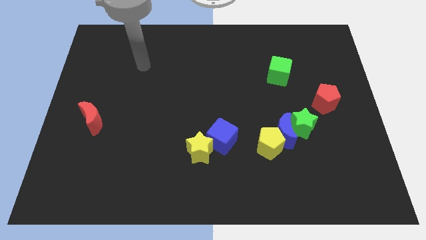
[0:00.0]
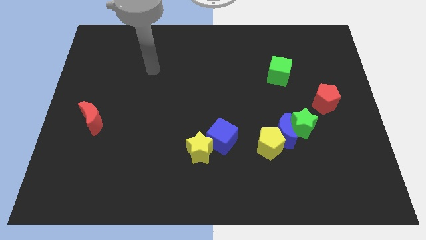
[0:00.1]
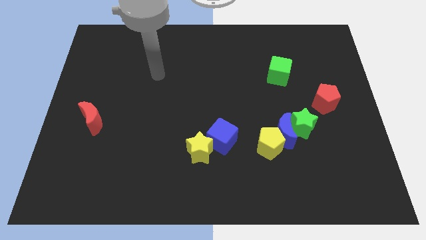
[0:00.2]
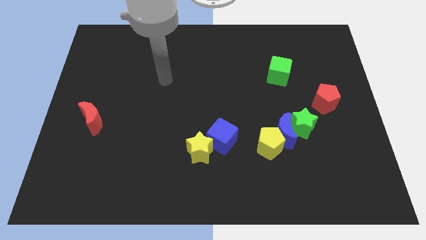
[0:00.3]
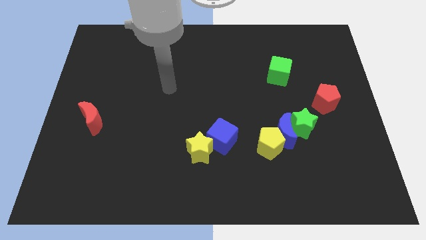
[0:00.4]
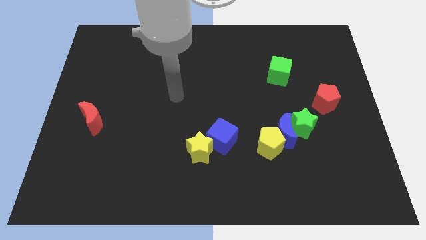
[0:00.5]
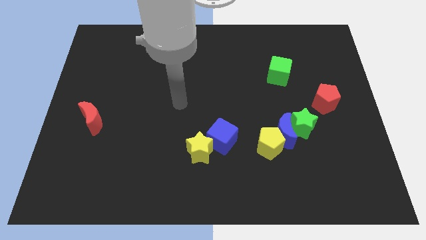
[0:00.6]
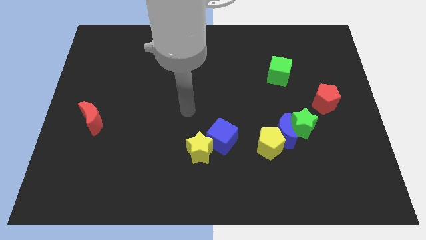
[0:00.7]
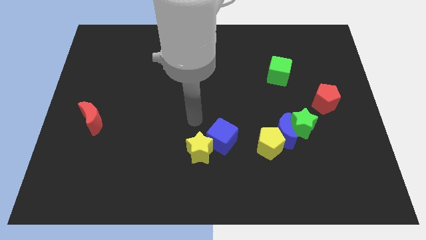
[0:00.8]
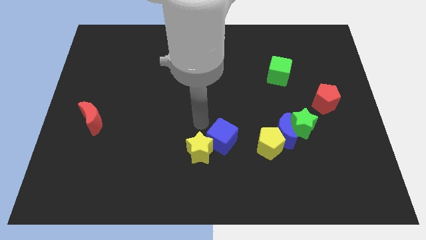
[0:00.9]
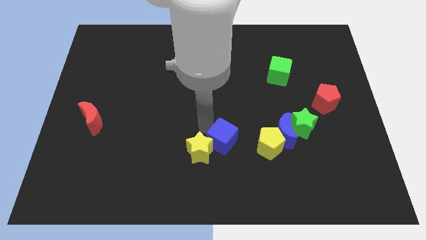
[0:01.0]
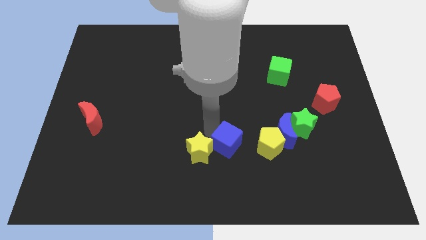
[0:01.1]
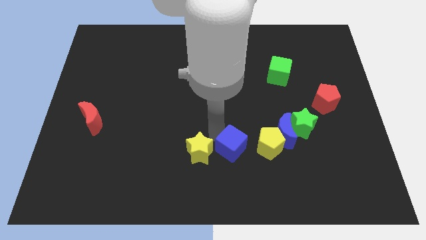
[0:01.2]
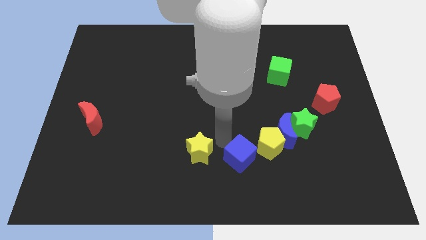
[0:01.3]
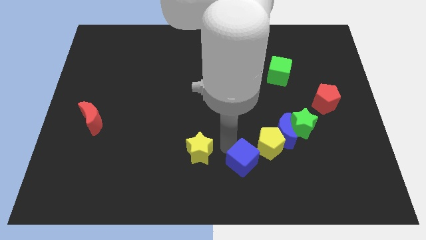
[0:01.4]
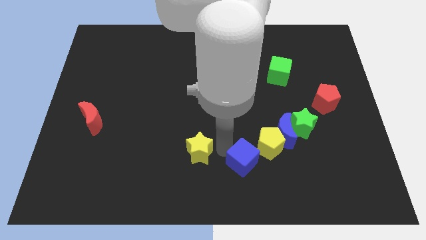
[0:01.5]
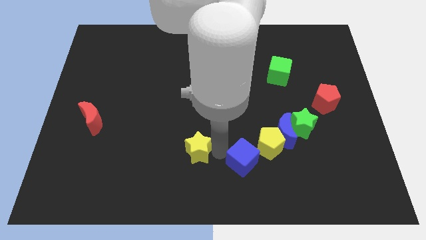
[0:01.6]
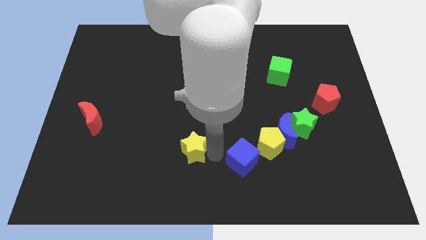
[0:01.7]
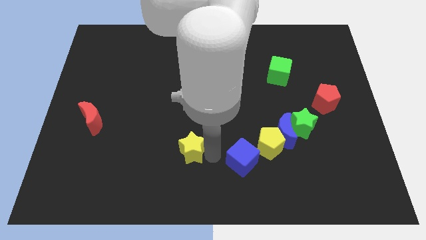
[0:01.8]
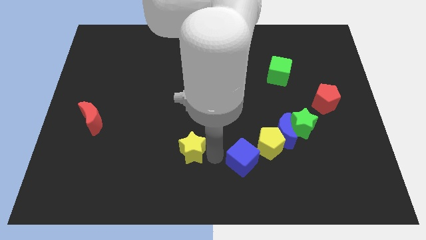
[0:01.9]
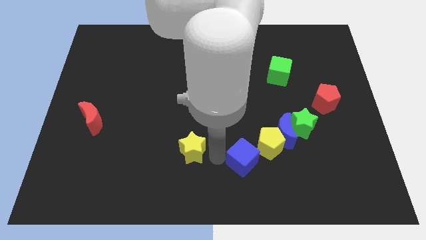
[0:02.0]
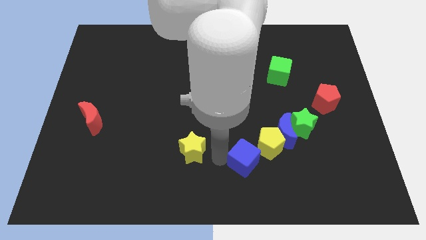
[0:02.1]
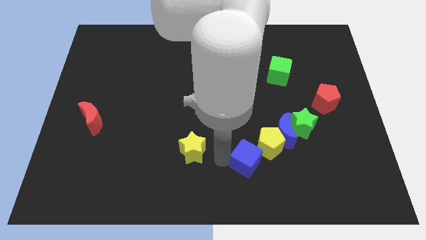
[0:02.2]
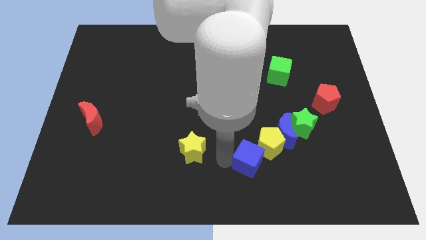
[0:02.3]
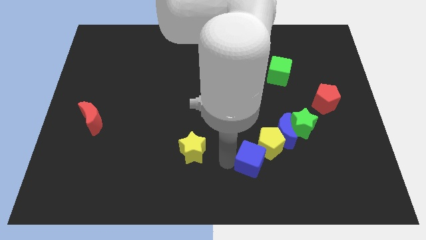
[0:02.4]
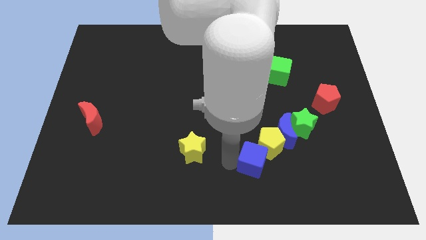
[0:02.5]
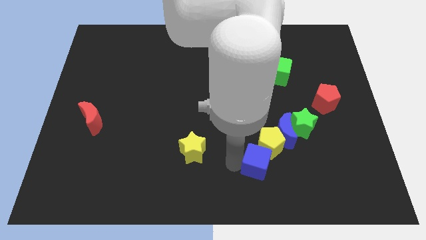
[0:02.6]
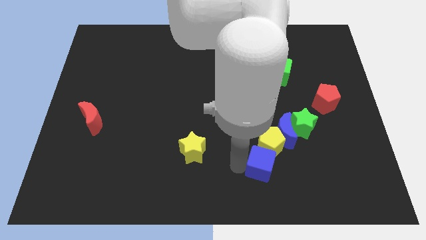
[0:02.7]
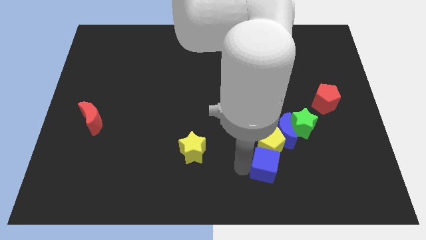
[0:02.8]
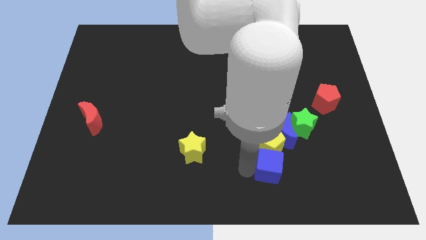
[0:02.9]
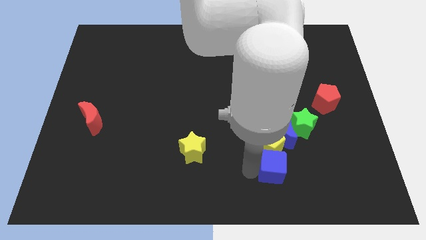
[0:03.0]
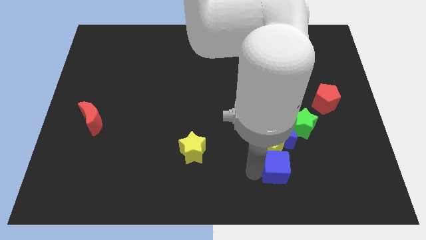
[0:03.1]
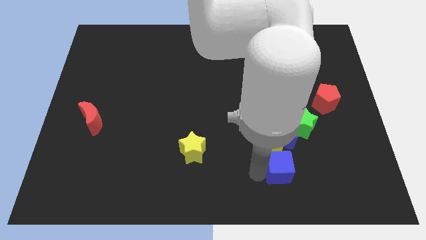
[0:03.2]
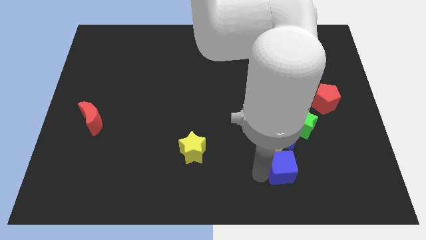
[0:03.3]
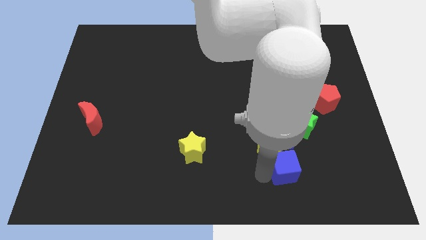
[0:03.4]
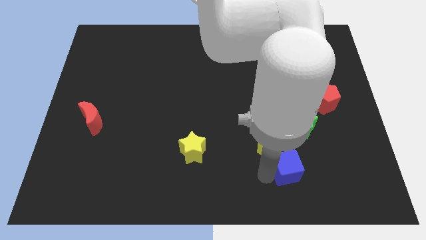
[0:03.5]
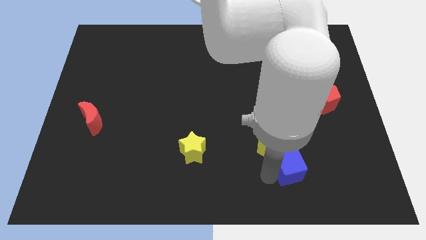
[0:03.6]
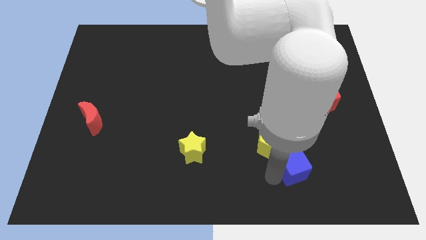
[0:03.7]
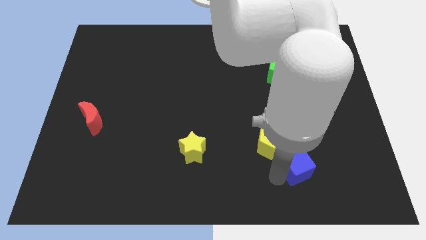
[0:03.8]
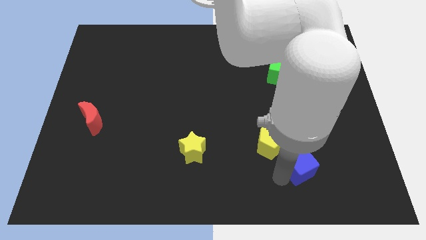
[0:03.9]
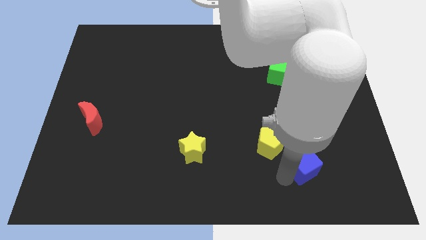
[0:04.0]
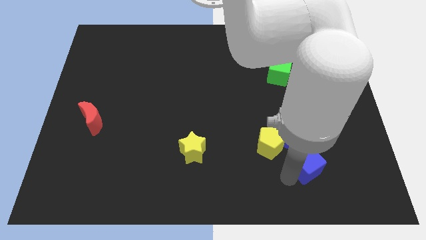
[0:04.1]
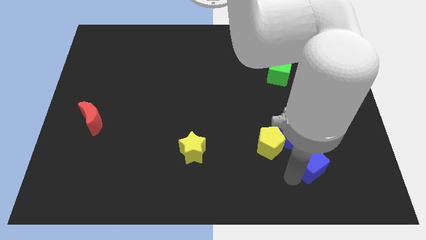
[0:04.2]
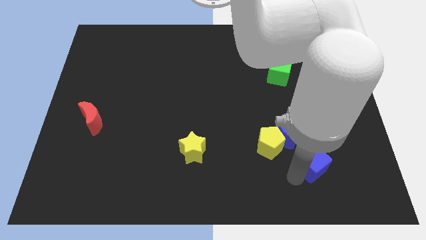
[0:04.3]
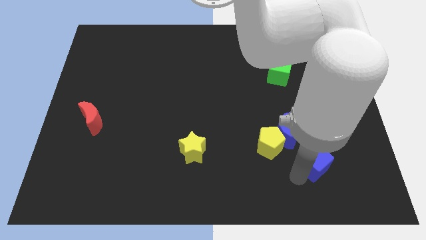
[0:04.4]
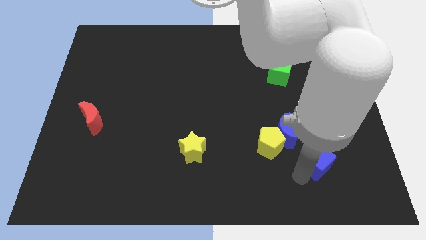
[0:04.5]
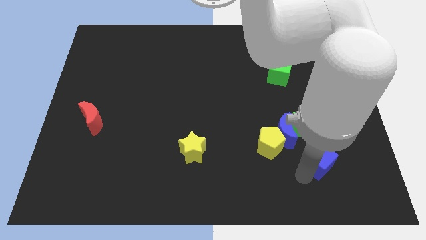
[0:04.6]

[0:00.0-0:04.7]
slide the blue cube to the bottom right side of the green star

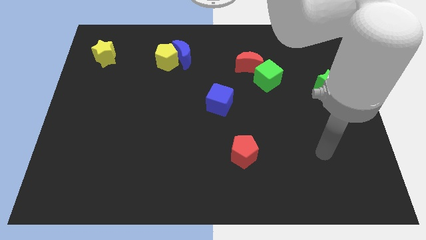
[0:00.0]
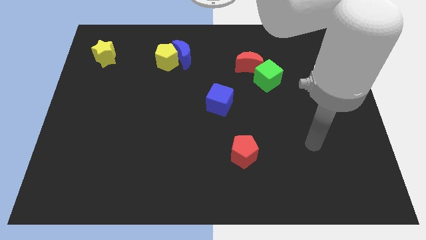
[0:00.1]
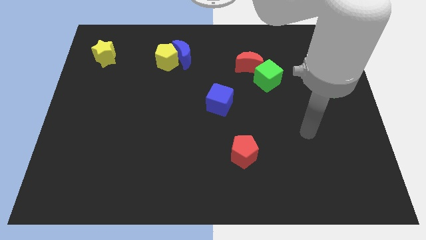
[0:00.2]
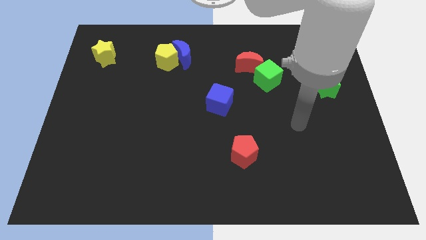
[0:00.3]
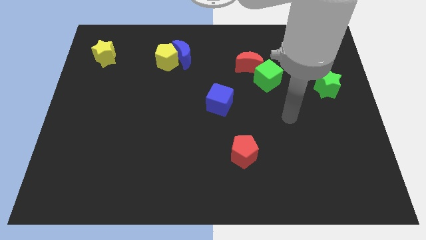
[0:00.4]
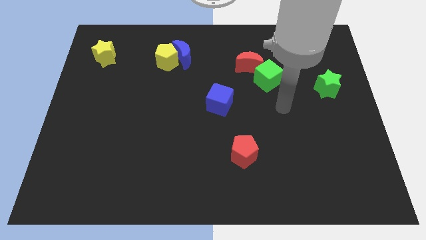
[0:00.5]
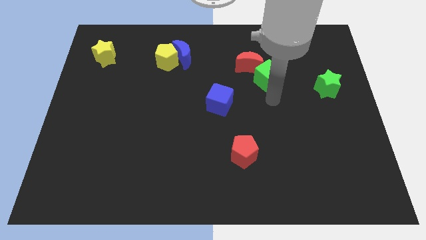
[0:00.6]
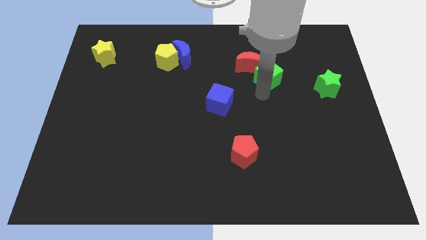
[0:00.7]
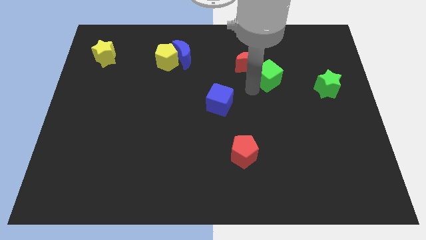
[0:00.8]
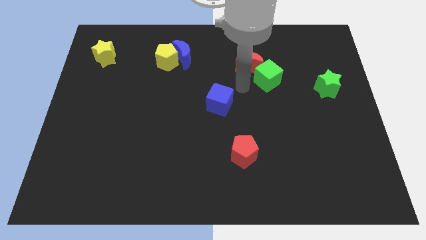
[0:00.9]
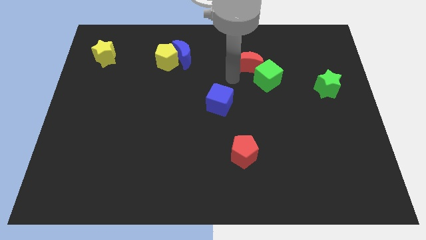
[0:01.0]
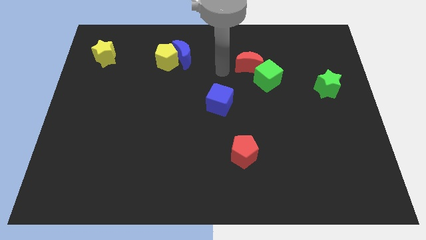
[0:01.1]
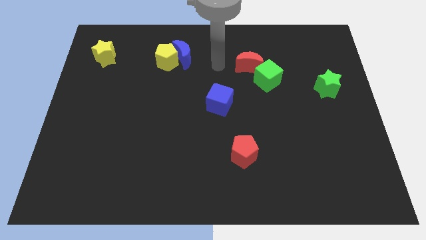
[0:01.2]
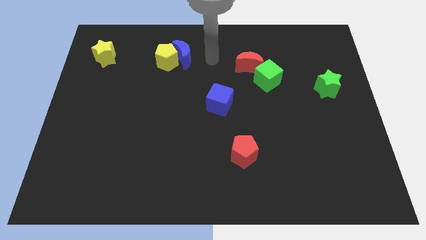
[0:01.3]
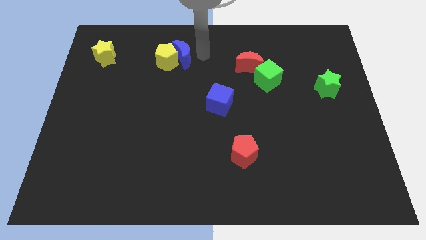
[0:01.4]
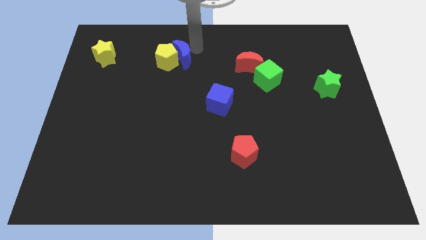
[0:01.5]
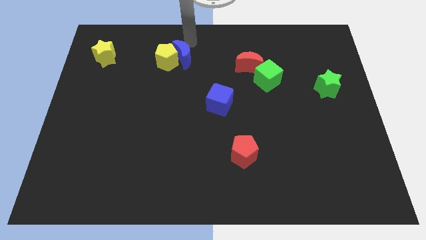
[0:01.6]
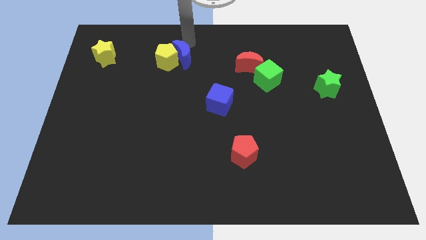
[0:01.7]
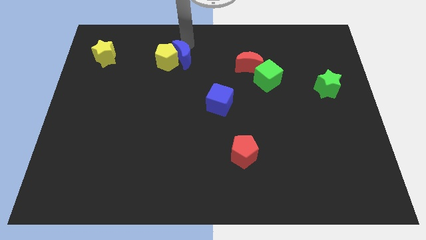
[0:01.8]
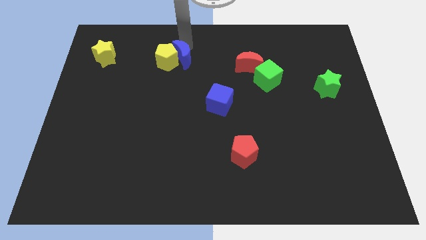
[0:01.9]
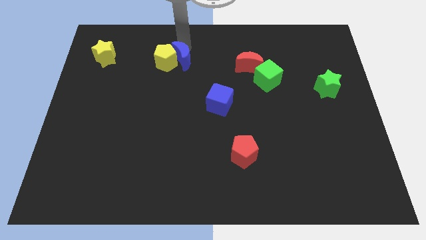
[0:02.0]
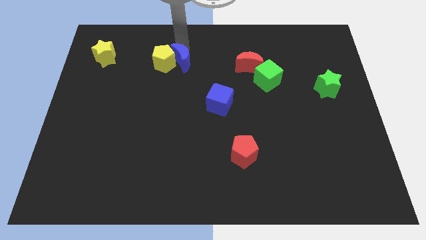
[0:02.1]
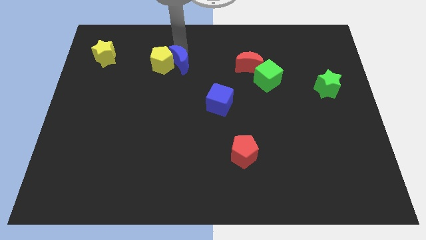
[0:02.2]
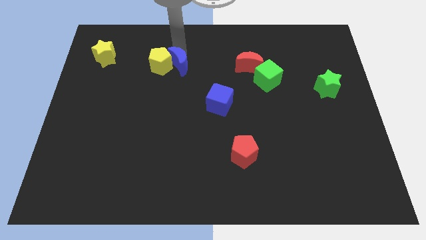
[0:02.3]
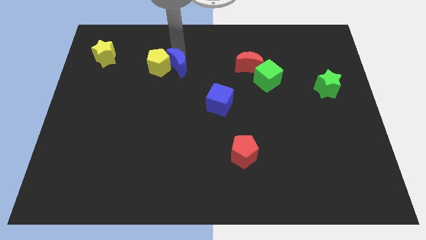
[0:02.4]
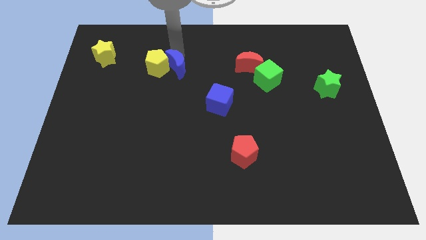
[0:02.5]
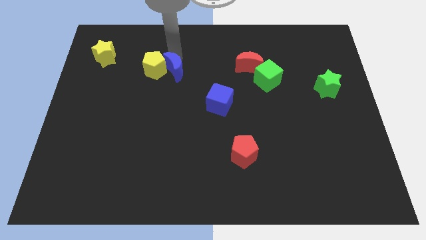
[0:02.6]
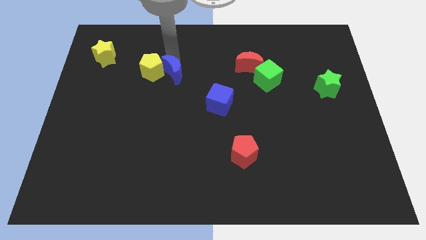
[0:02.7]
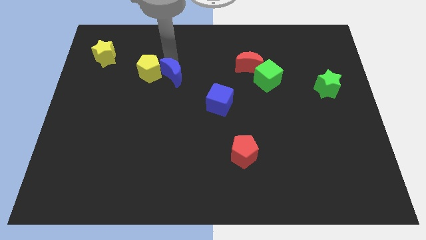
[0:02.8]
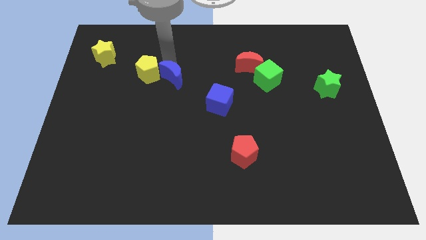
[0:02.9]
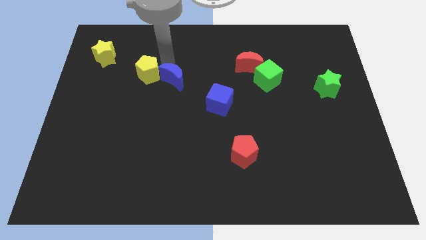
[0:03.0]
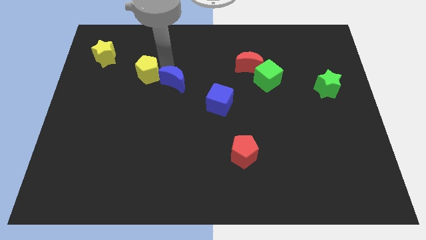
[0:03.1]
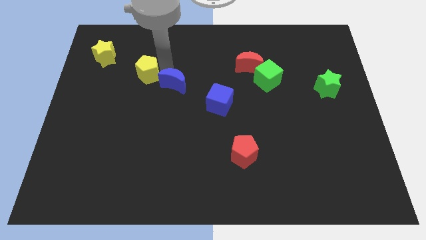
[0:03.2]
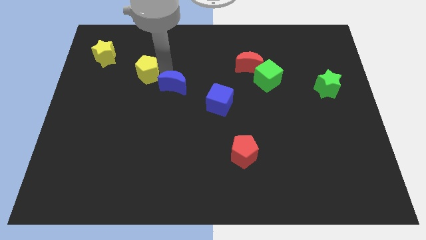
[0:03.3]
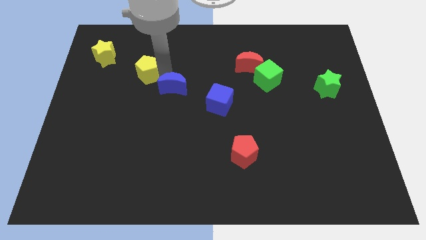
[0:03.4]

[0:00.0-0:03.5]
put the blue moon just left of the blue cube
